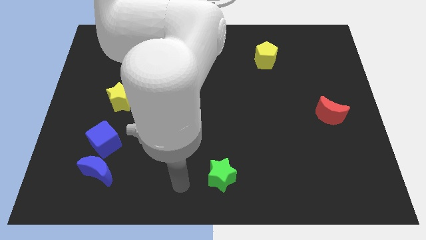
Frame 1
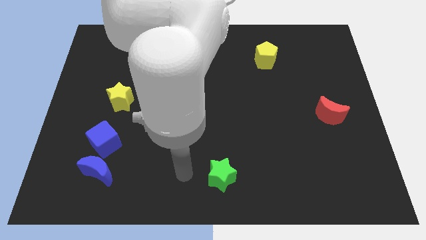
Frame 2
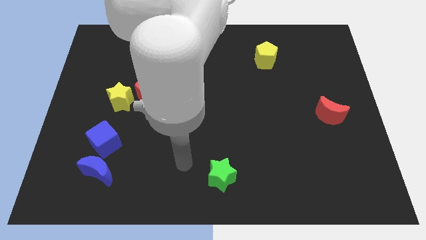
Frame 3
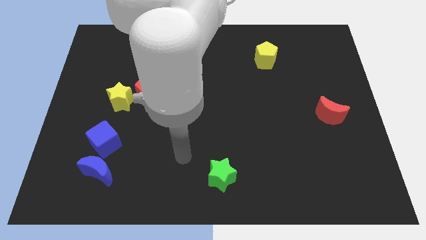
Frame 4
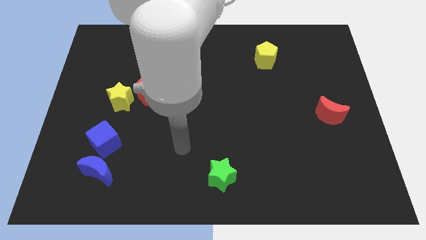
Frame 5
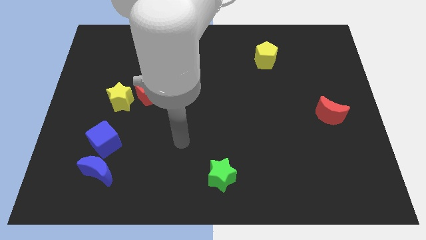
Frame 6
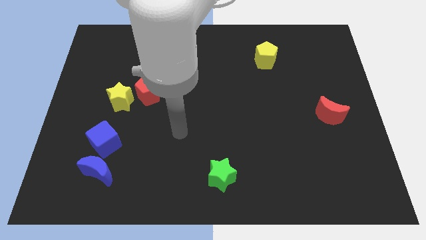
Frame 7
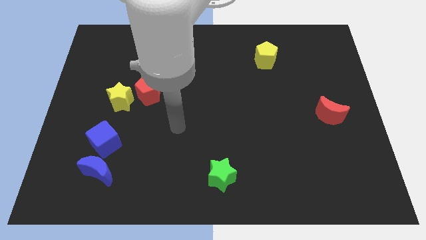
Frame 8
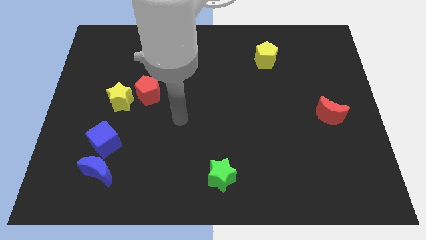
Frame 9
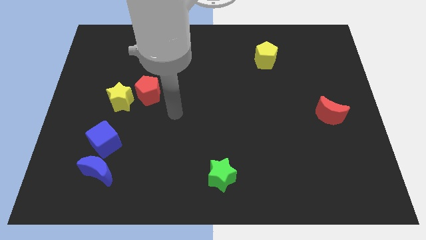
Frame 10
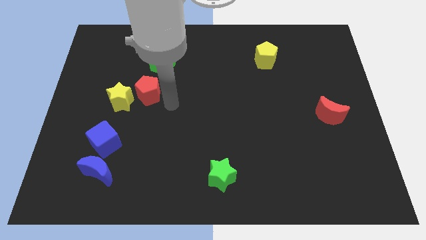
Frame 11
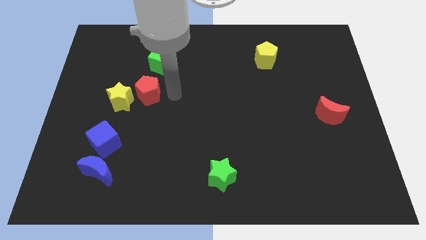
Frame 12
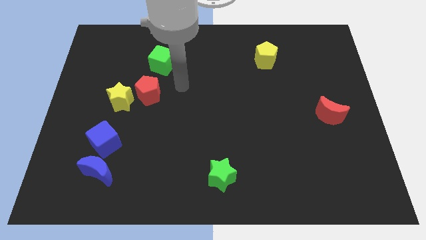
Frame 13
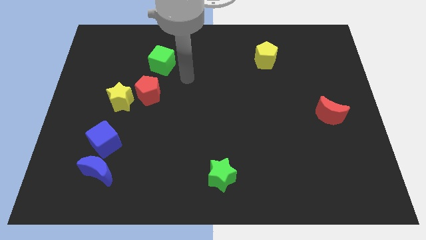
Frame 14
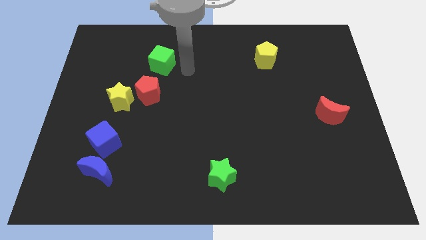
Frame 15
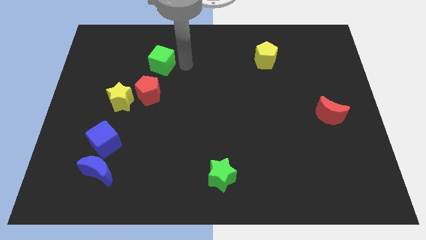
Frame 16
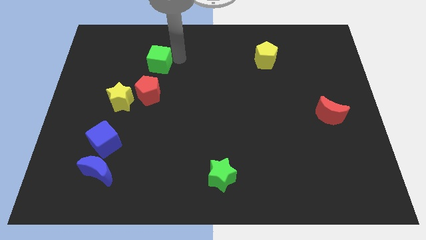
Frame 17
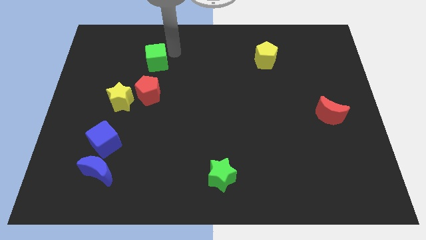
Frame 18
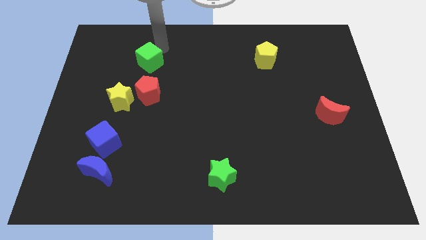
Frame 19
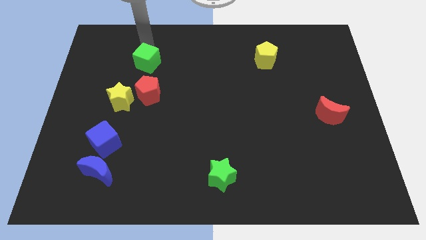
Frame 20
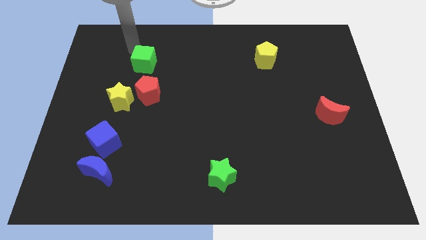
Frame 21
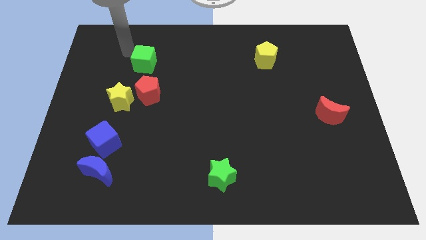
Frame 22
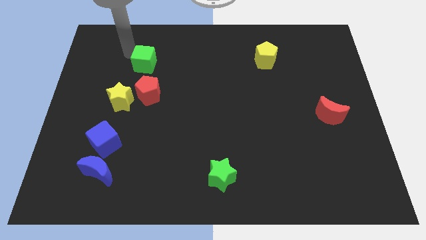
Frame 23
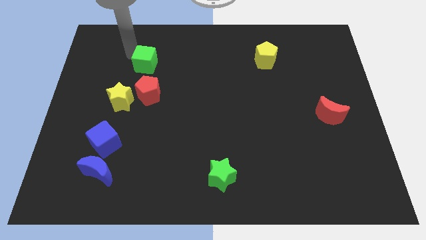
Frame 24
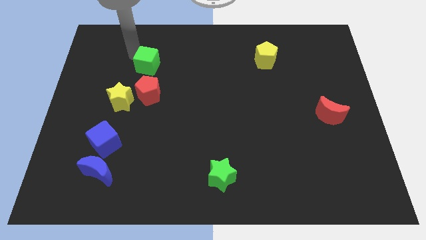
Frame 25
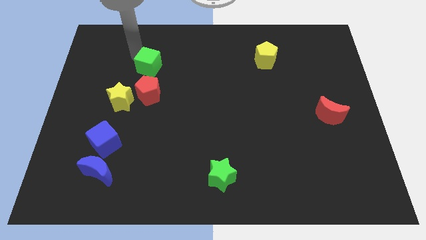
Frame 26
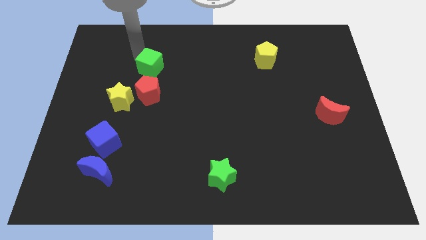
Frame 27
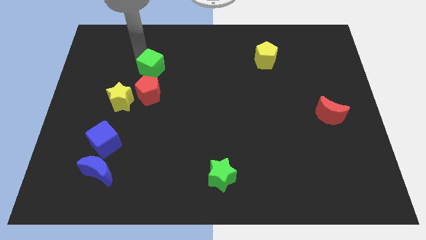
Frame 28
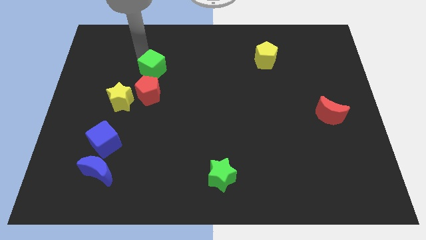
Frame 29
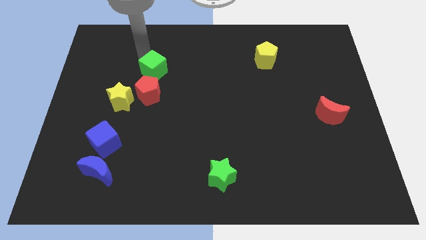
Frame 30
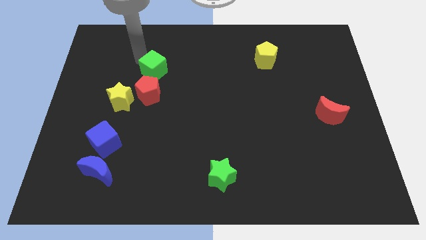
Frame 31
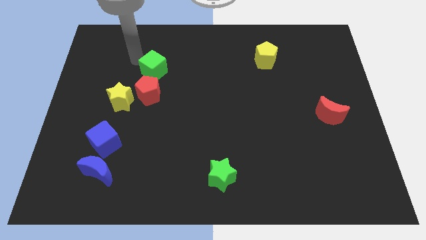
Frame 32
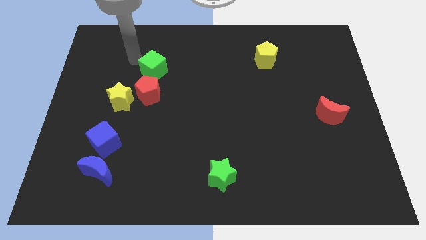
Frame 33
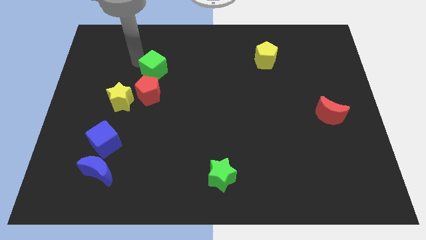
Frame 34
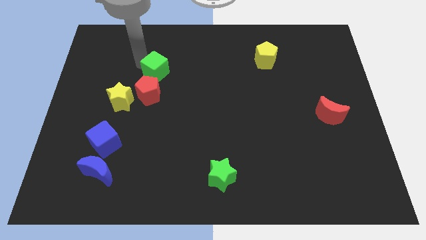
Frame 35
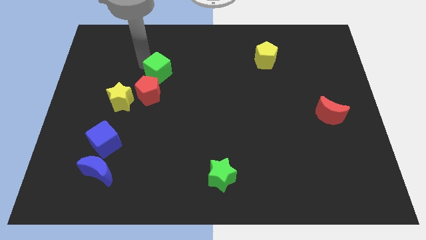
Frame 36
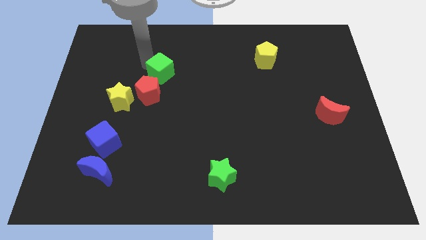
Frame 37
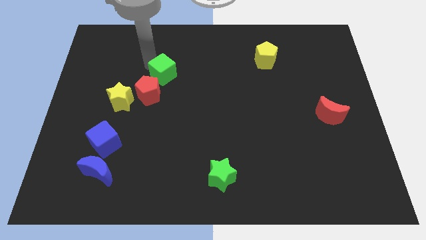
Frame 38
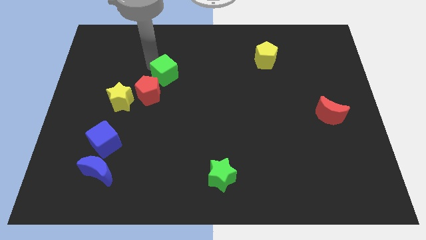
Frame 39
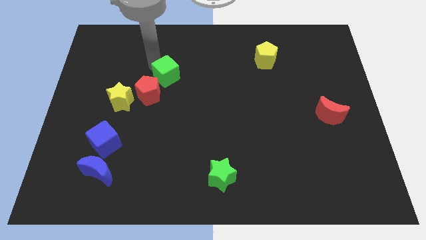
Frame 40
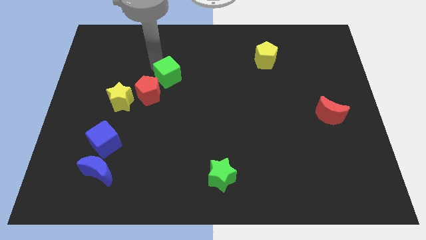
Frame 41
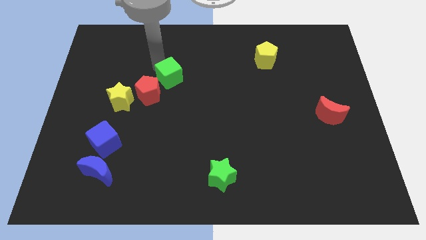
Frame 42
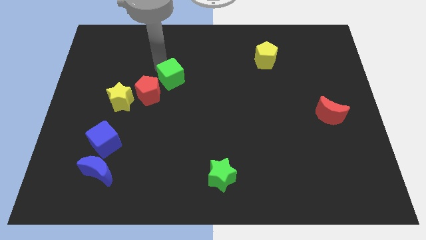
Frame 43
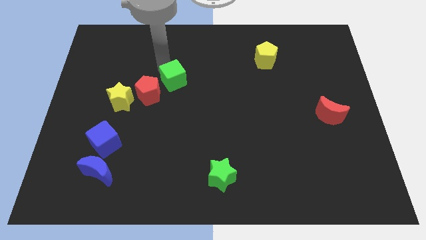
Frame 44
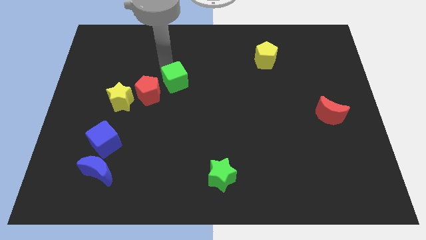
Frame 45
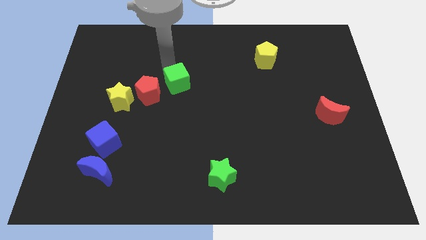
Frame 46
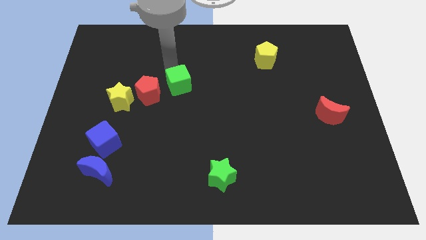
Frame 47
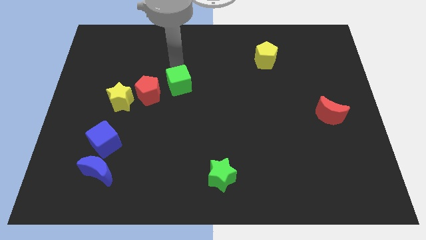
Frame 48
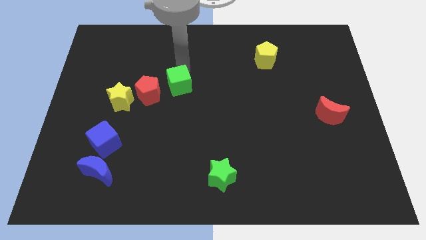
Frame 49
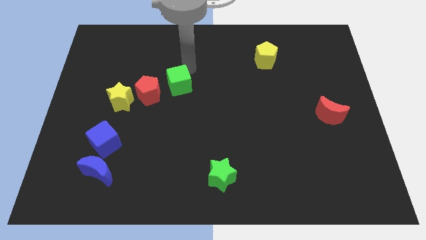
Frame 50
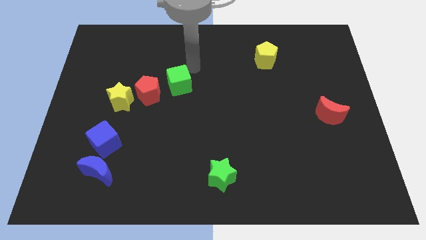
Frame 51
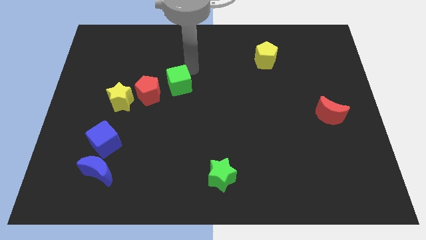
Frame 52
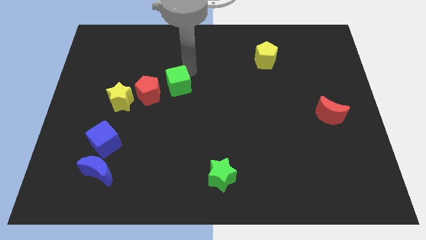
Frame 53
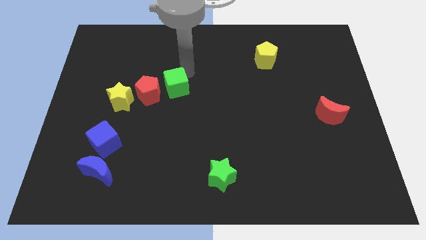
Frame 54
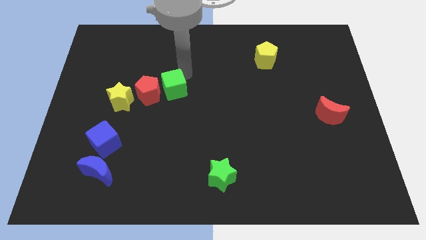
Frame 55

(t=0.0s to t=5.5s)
put the green cube just right of the yellow star

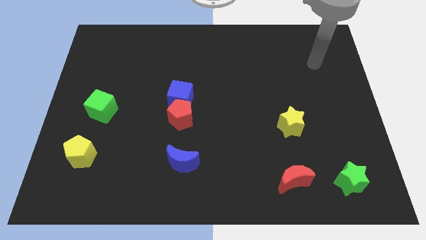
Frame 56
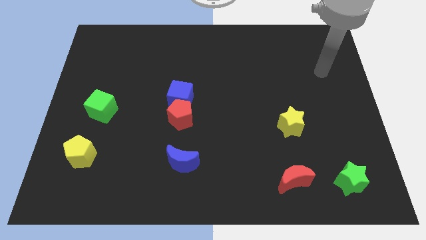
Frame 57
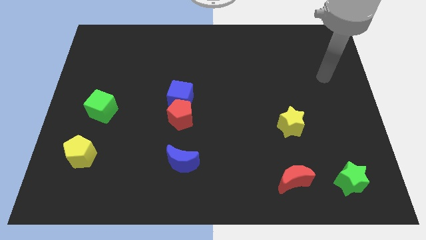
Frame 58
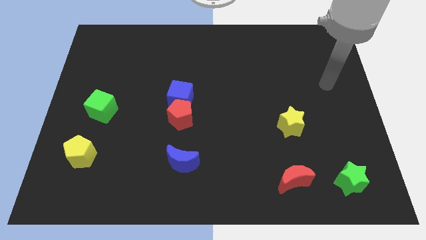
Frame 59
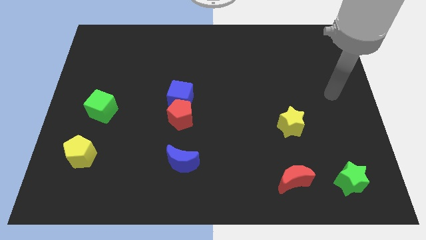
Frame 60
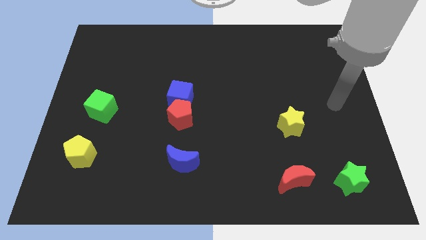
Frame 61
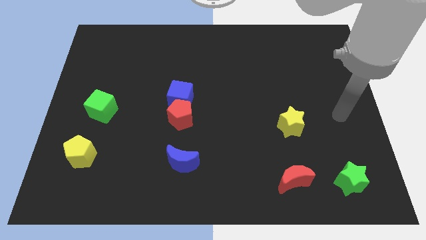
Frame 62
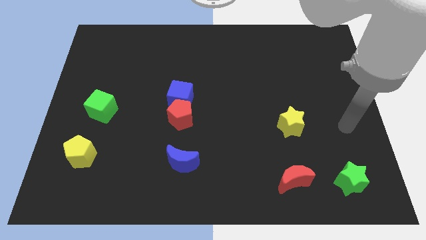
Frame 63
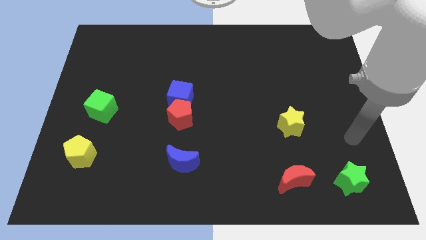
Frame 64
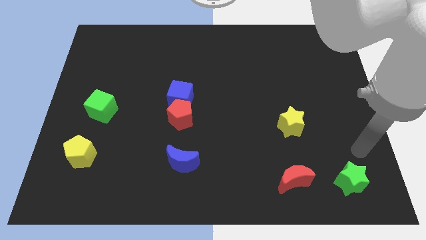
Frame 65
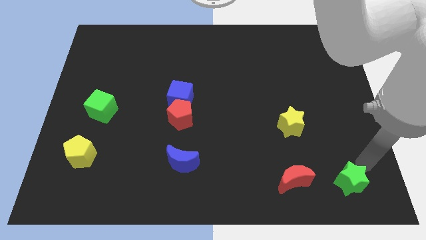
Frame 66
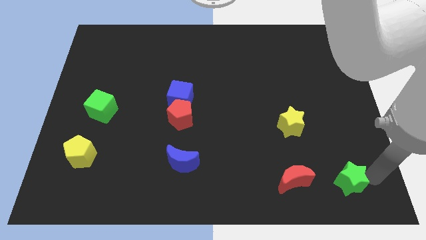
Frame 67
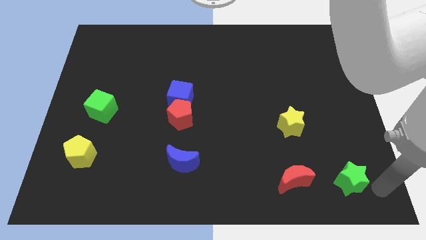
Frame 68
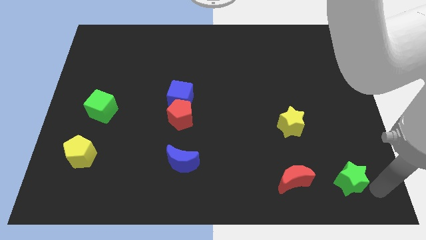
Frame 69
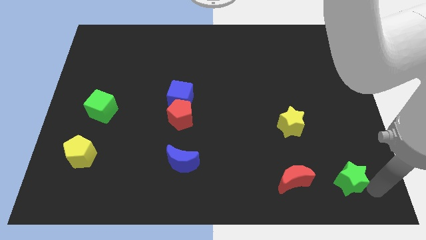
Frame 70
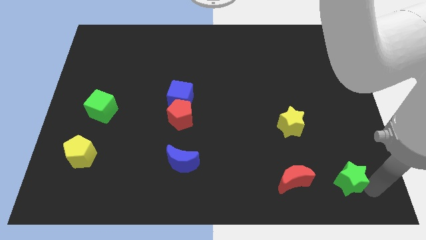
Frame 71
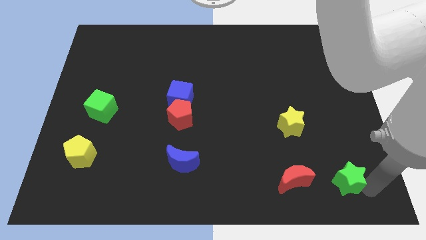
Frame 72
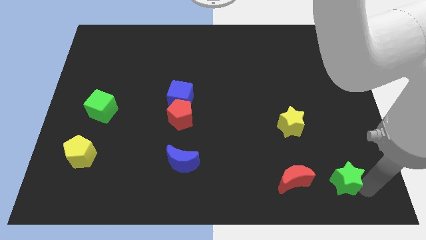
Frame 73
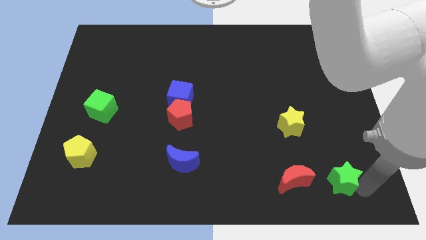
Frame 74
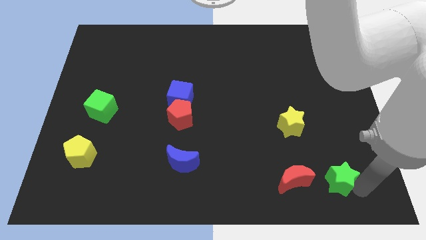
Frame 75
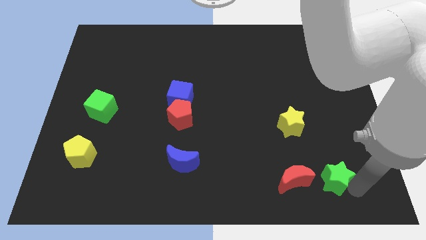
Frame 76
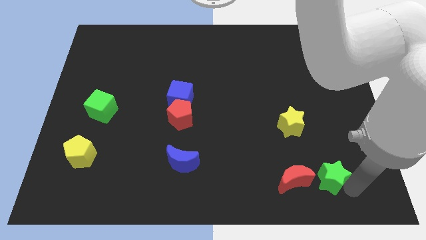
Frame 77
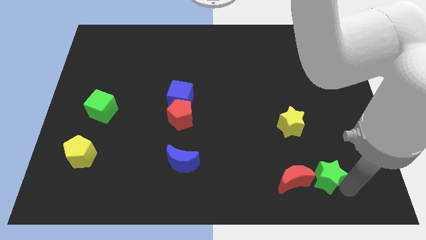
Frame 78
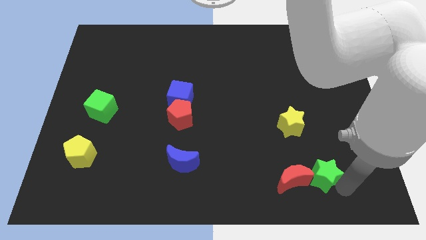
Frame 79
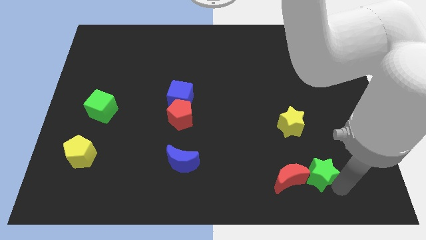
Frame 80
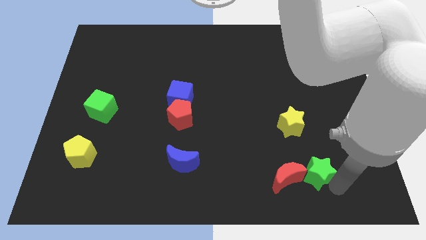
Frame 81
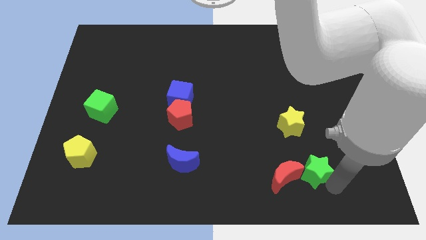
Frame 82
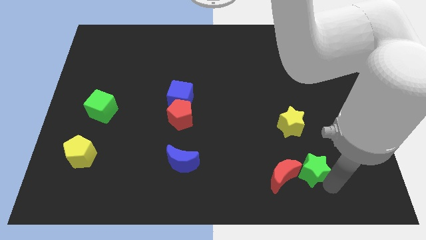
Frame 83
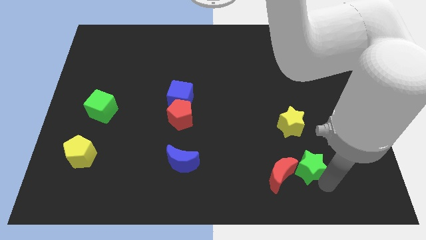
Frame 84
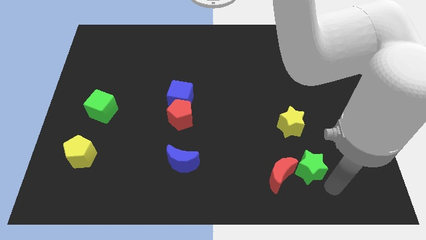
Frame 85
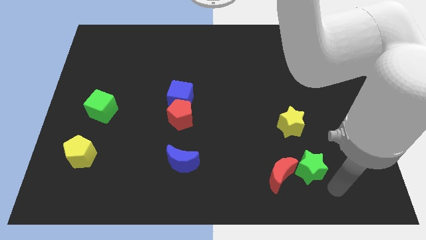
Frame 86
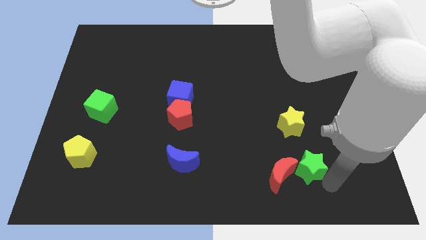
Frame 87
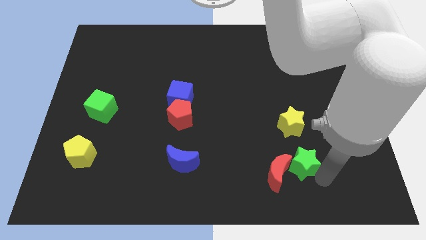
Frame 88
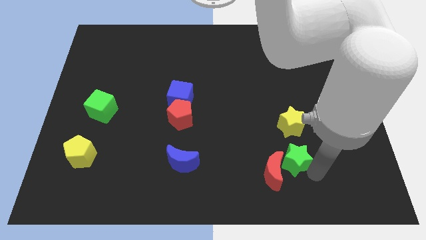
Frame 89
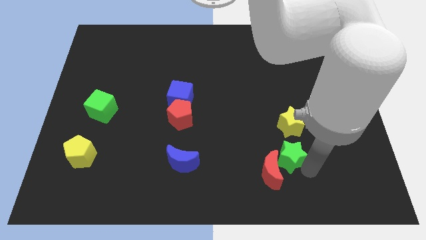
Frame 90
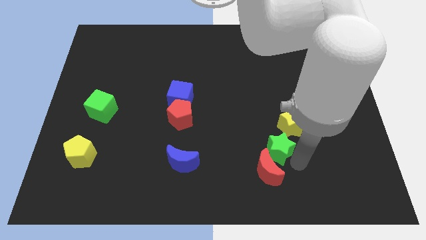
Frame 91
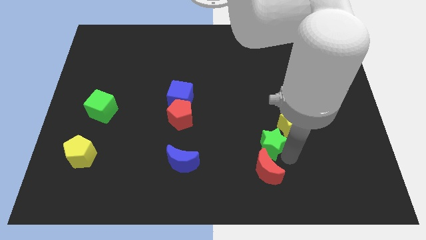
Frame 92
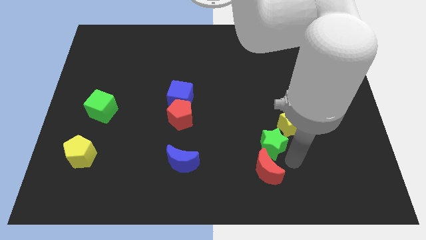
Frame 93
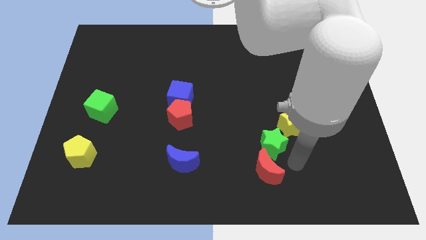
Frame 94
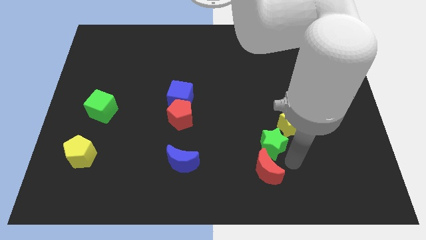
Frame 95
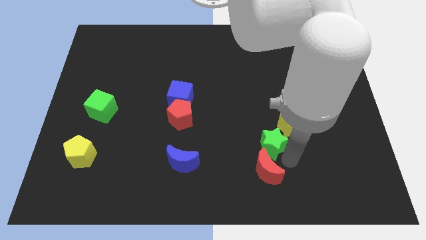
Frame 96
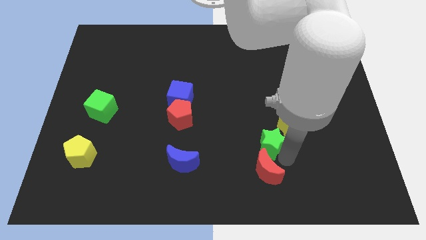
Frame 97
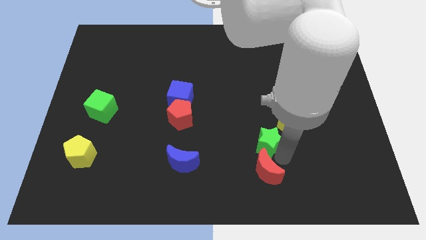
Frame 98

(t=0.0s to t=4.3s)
slide the green star to the left of the yellow star
